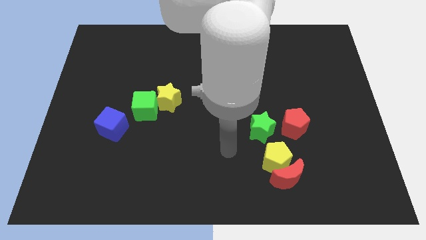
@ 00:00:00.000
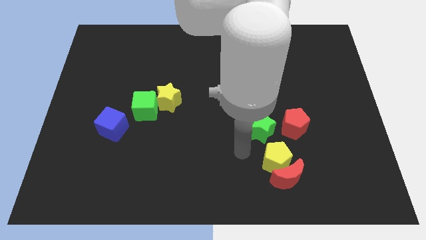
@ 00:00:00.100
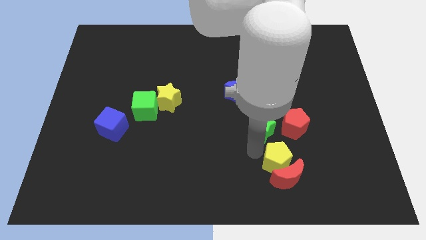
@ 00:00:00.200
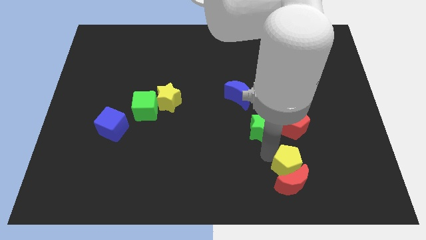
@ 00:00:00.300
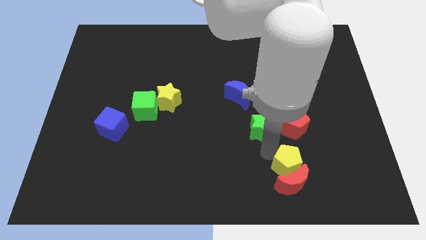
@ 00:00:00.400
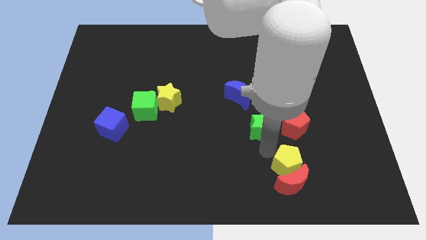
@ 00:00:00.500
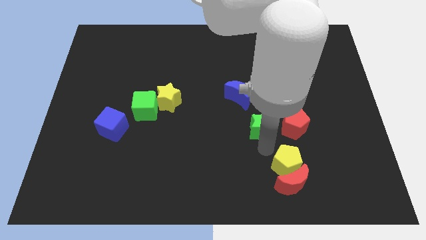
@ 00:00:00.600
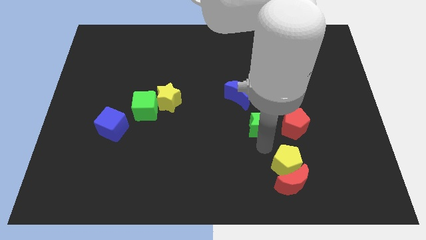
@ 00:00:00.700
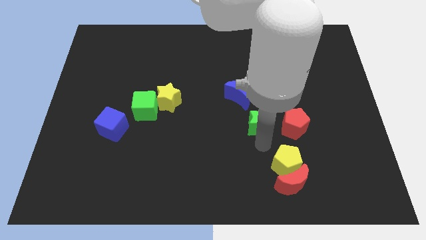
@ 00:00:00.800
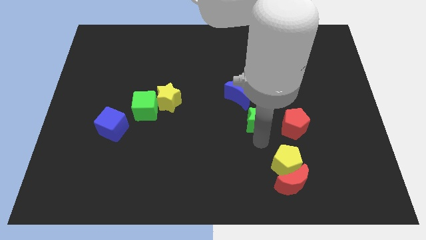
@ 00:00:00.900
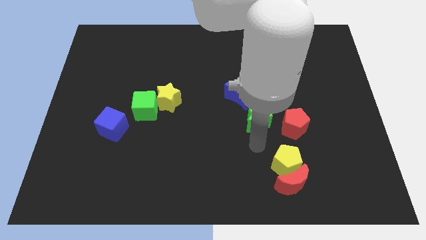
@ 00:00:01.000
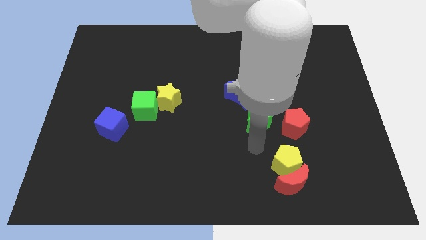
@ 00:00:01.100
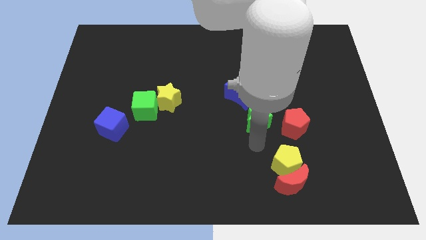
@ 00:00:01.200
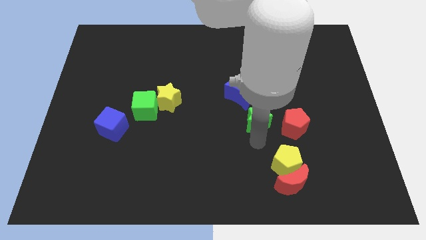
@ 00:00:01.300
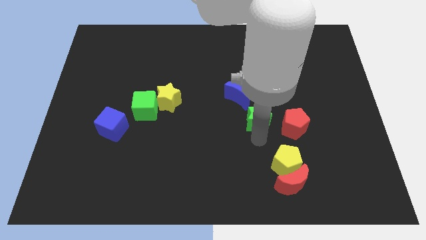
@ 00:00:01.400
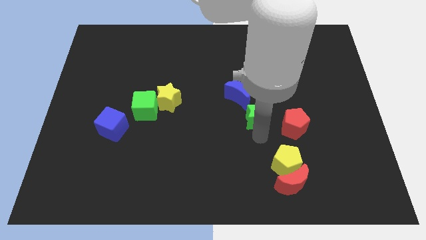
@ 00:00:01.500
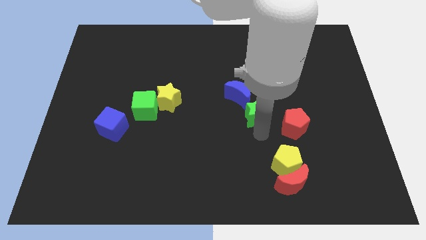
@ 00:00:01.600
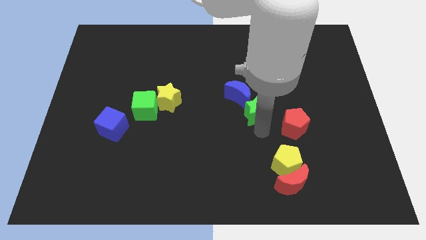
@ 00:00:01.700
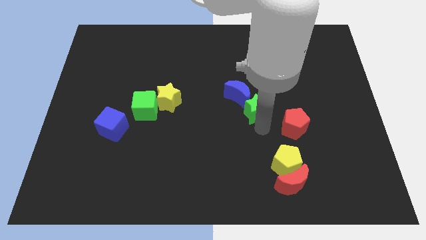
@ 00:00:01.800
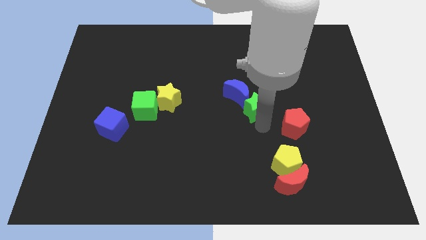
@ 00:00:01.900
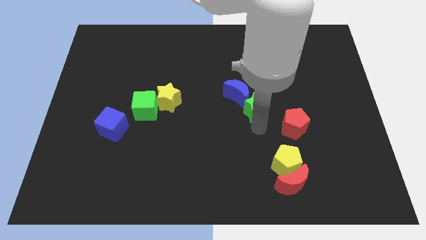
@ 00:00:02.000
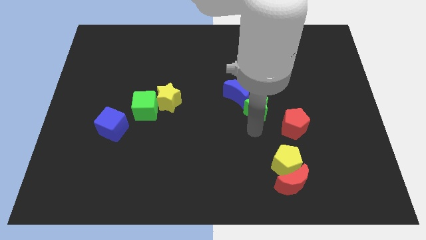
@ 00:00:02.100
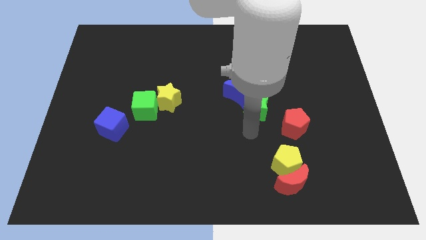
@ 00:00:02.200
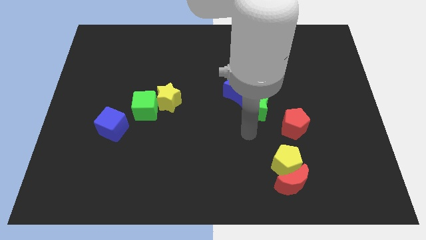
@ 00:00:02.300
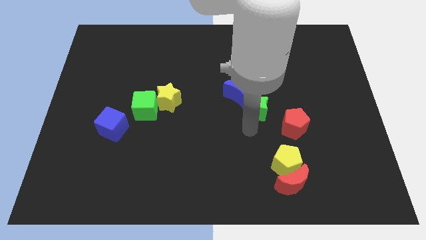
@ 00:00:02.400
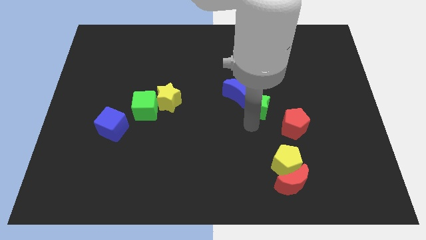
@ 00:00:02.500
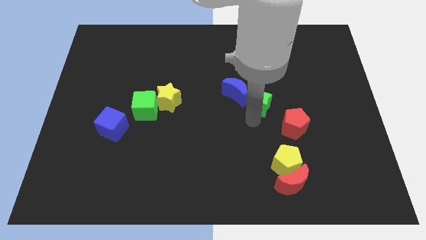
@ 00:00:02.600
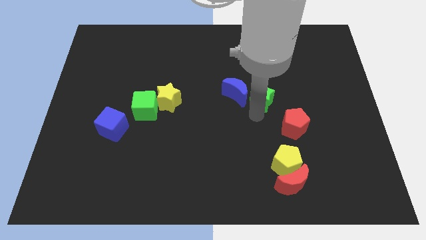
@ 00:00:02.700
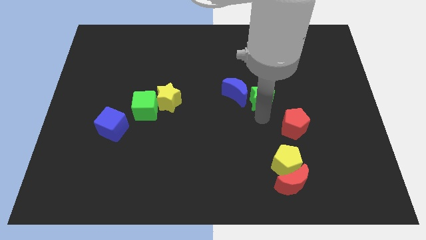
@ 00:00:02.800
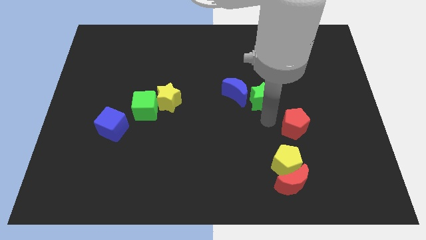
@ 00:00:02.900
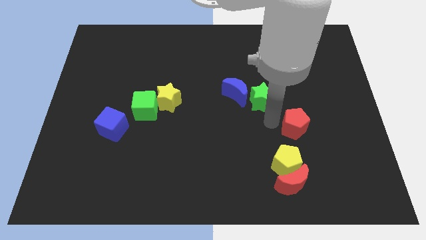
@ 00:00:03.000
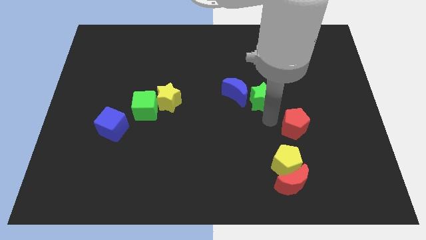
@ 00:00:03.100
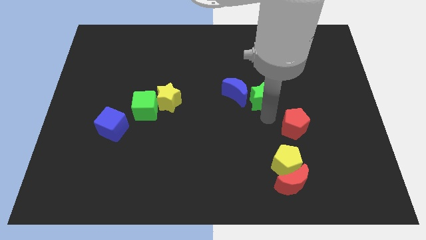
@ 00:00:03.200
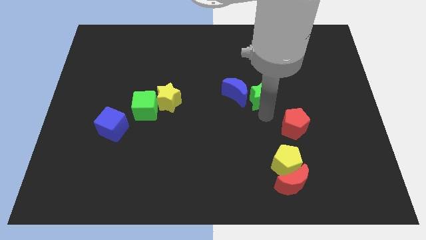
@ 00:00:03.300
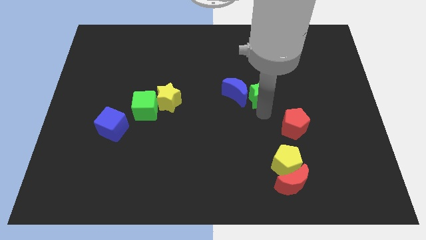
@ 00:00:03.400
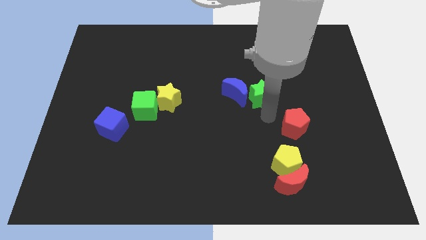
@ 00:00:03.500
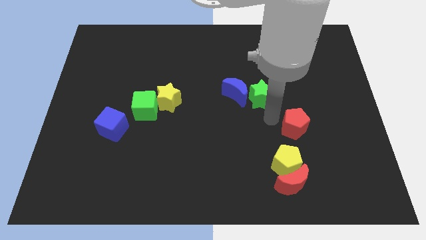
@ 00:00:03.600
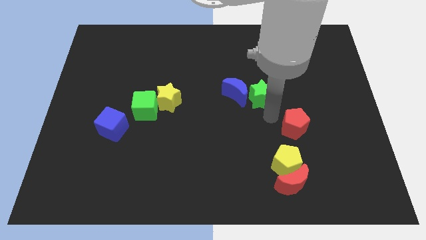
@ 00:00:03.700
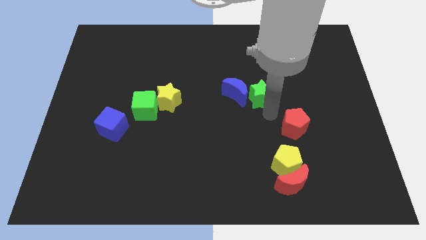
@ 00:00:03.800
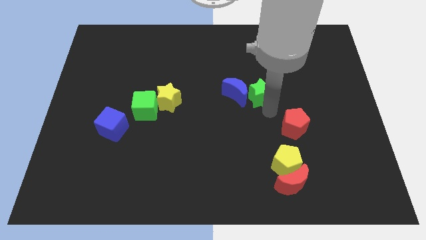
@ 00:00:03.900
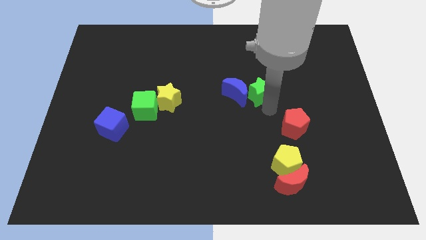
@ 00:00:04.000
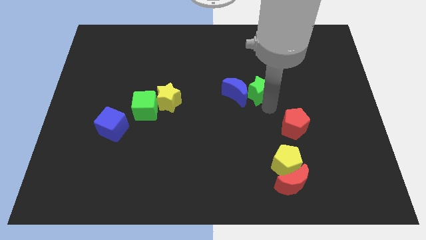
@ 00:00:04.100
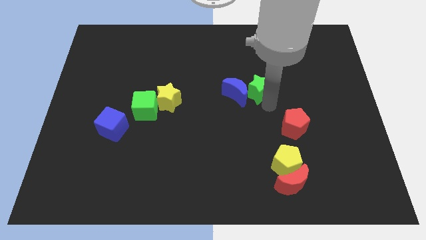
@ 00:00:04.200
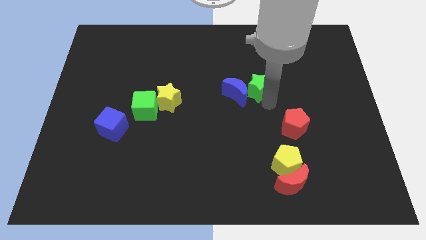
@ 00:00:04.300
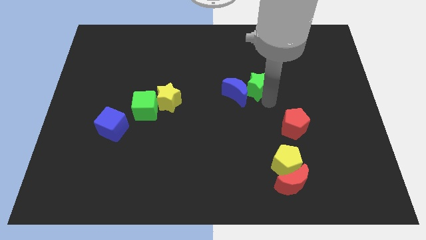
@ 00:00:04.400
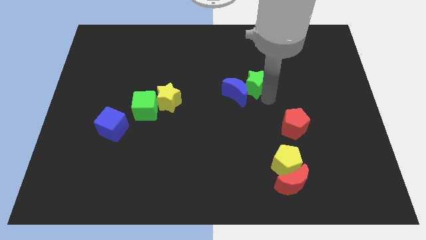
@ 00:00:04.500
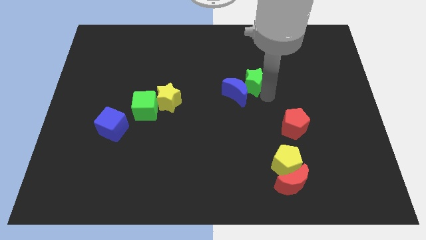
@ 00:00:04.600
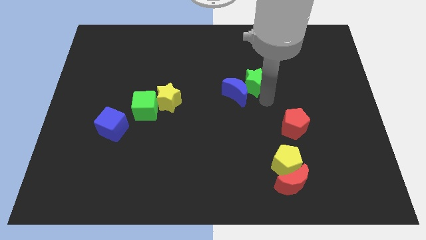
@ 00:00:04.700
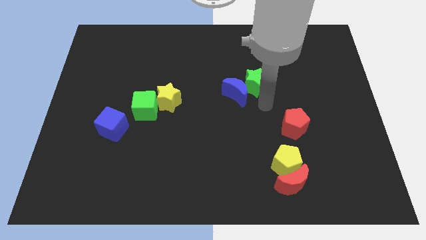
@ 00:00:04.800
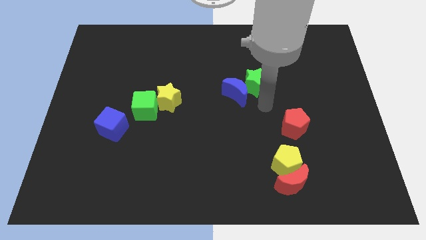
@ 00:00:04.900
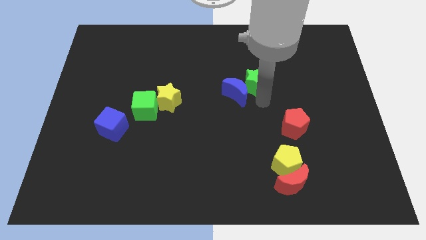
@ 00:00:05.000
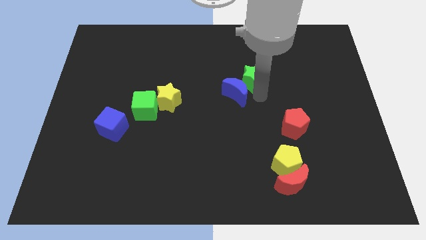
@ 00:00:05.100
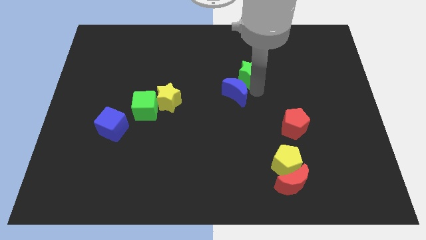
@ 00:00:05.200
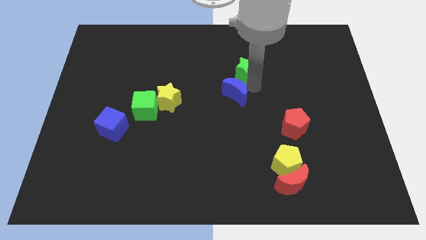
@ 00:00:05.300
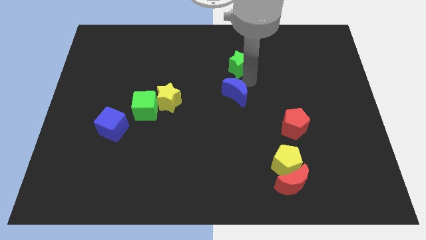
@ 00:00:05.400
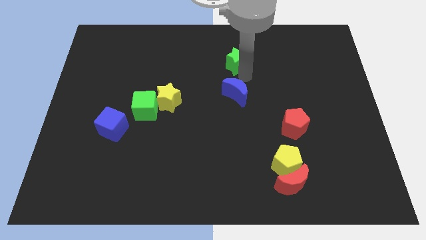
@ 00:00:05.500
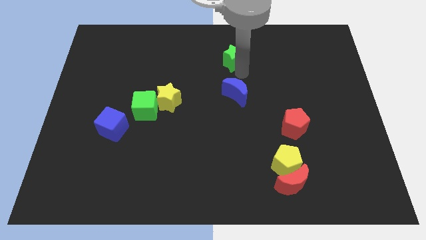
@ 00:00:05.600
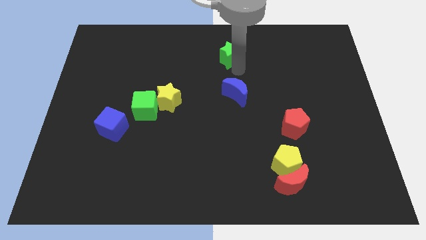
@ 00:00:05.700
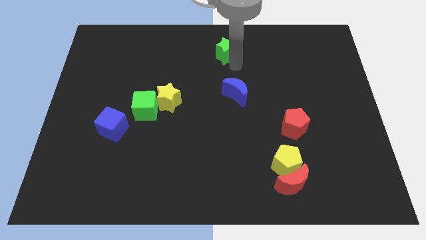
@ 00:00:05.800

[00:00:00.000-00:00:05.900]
put the green star to the towards your base
